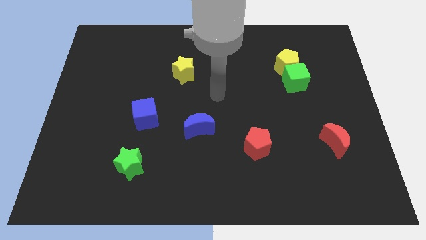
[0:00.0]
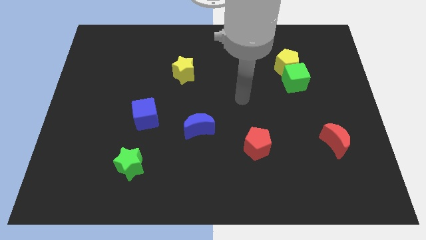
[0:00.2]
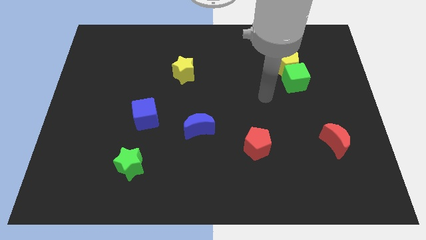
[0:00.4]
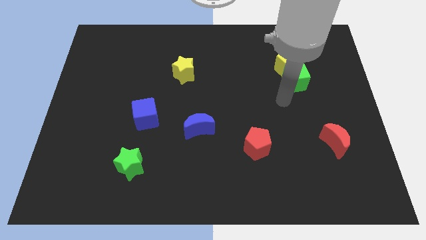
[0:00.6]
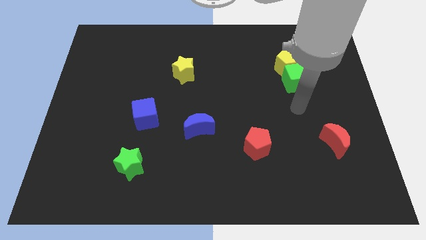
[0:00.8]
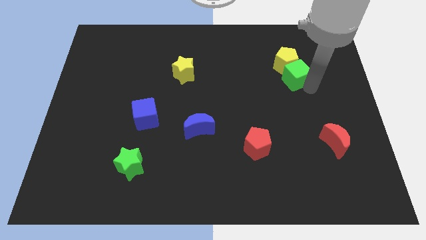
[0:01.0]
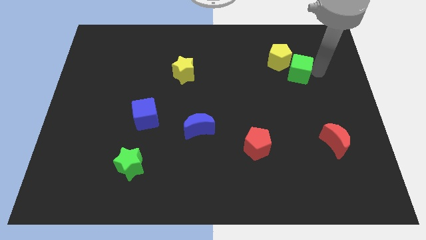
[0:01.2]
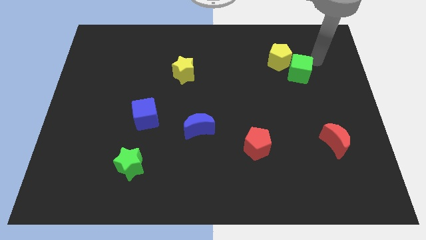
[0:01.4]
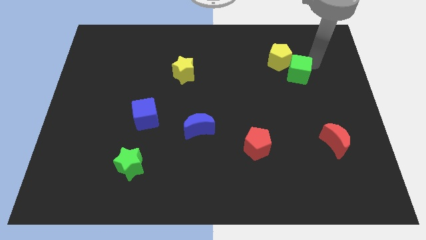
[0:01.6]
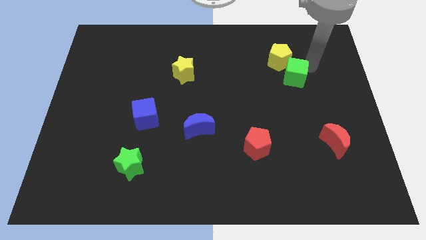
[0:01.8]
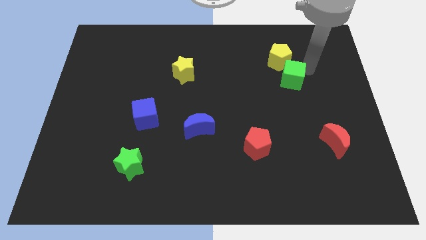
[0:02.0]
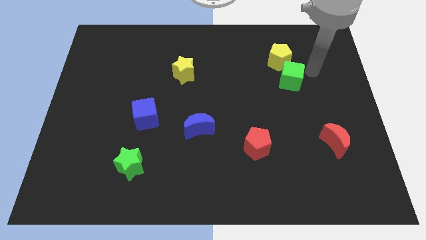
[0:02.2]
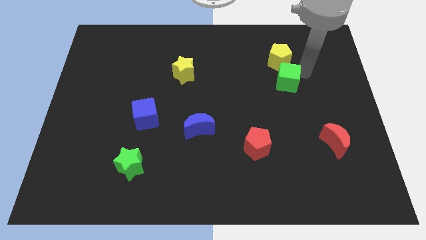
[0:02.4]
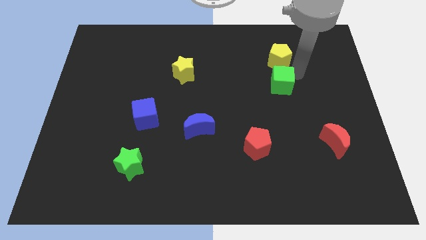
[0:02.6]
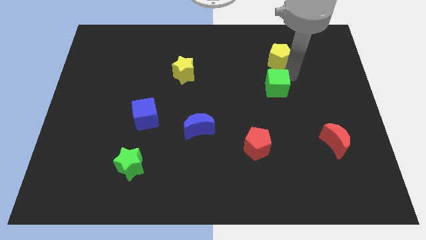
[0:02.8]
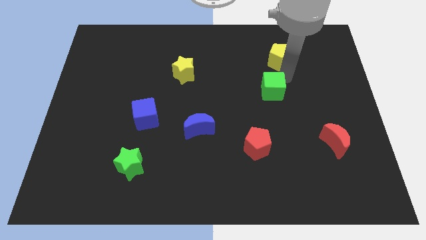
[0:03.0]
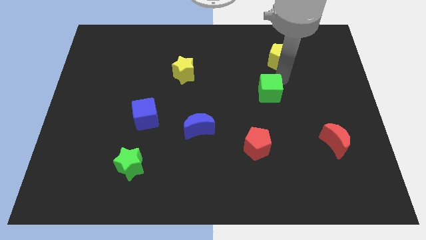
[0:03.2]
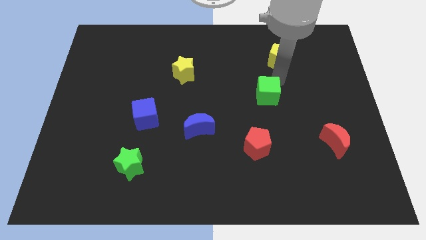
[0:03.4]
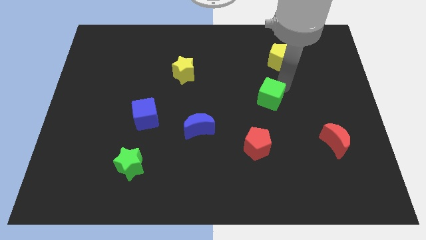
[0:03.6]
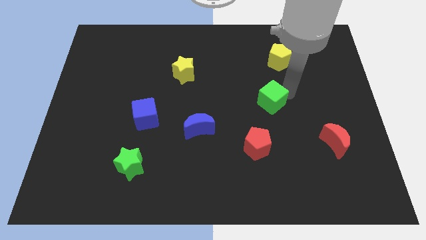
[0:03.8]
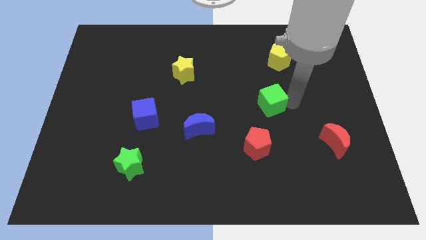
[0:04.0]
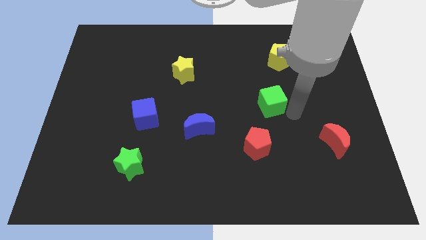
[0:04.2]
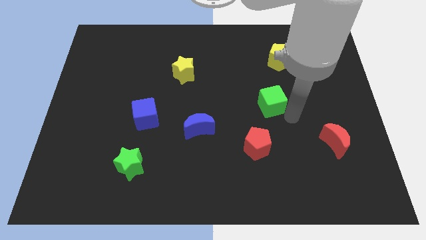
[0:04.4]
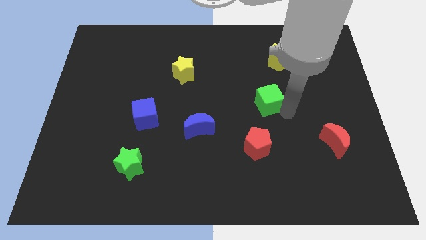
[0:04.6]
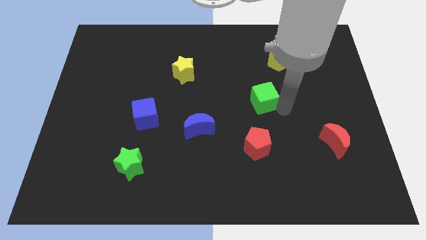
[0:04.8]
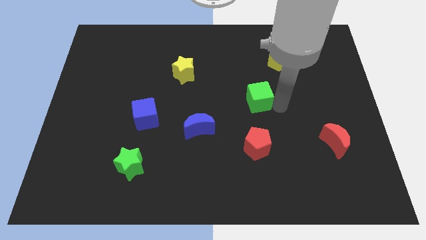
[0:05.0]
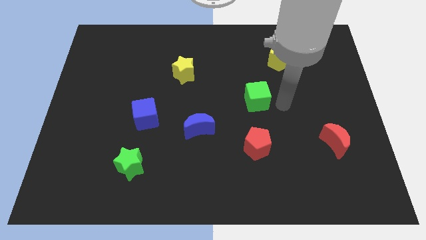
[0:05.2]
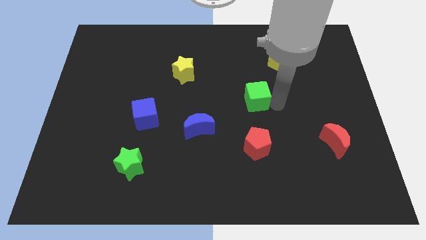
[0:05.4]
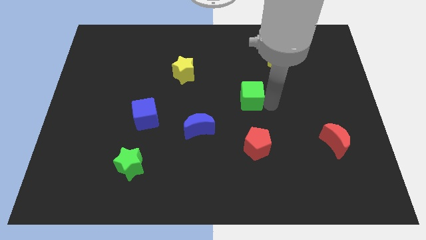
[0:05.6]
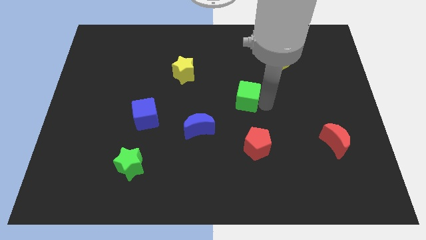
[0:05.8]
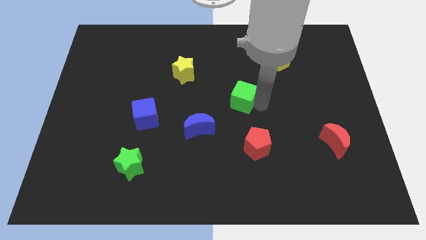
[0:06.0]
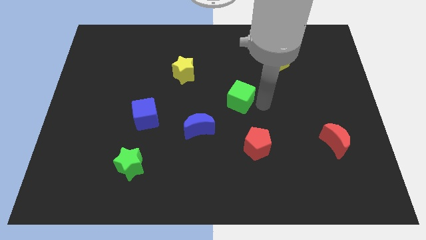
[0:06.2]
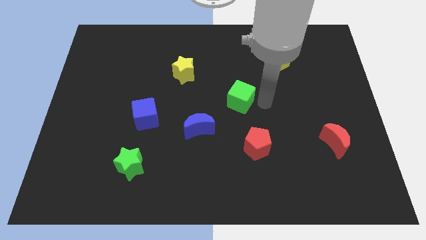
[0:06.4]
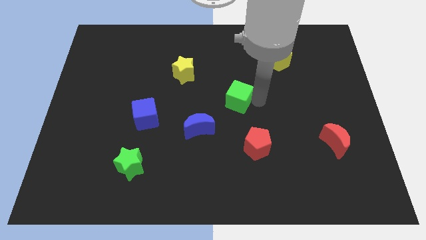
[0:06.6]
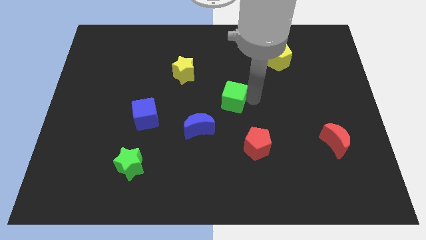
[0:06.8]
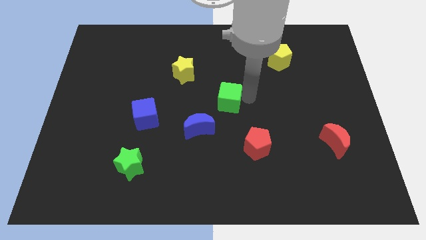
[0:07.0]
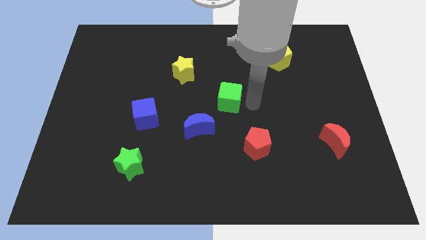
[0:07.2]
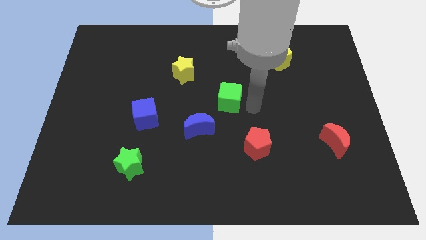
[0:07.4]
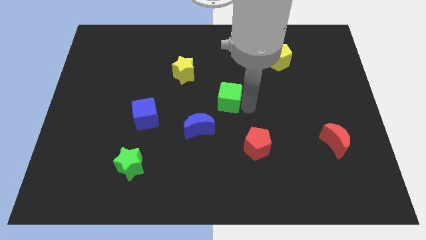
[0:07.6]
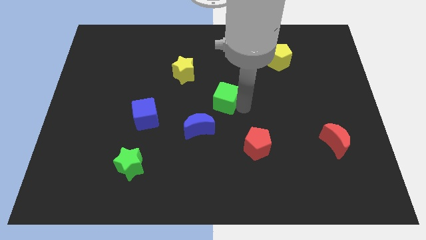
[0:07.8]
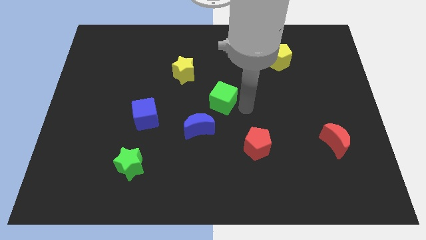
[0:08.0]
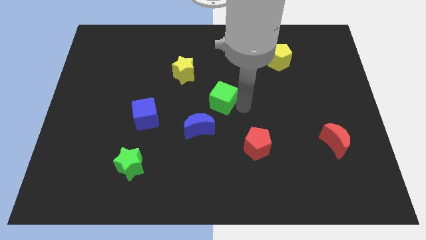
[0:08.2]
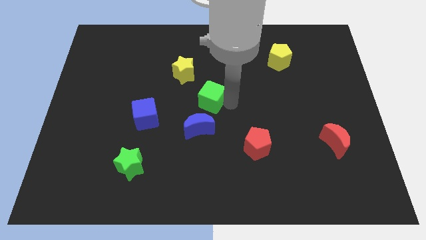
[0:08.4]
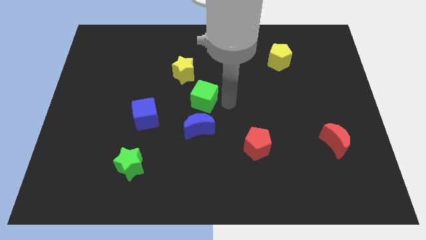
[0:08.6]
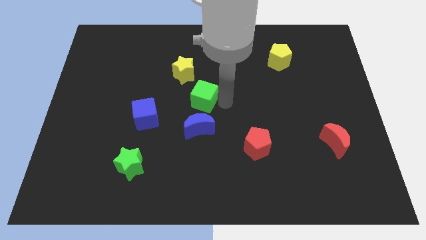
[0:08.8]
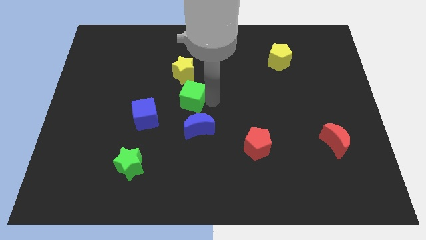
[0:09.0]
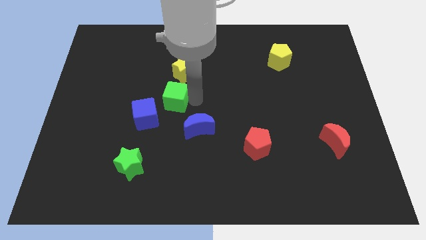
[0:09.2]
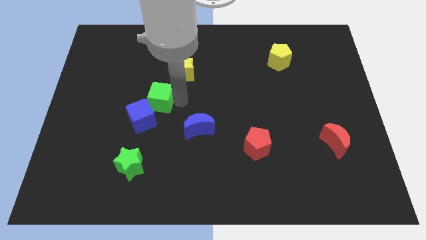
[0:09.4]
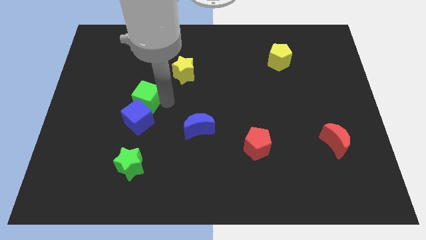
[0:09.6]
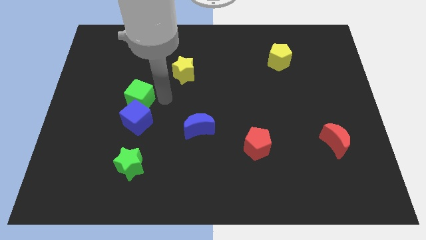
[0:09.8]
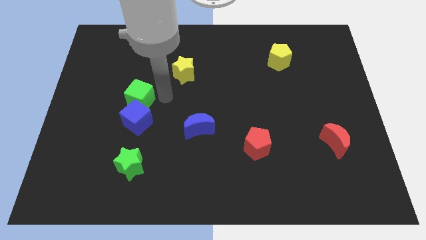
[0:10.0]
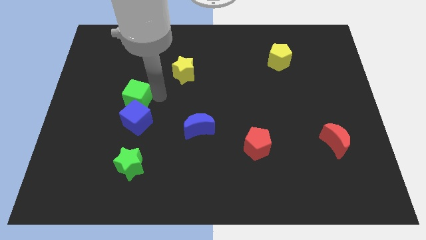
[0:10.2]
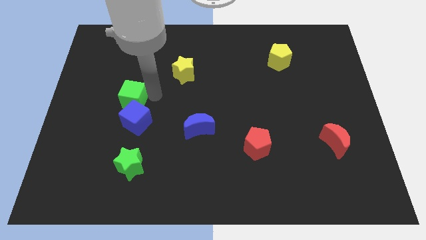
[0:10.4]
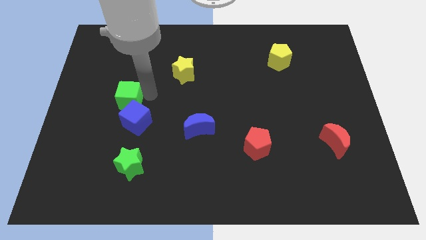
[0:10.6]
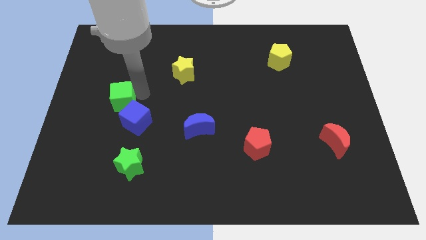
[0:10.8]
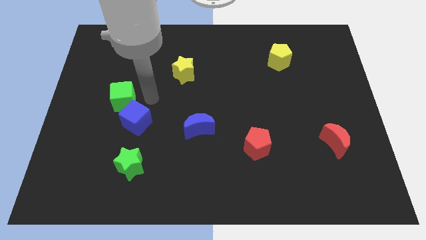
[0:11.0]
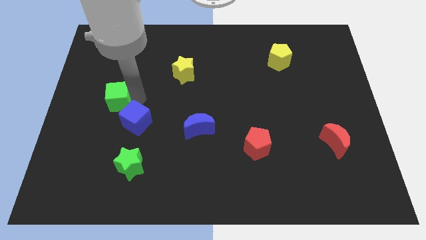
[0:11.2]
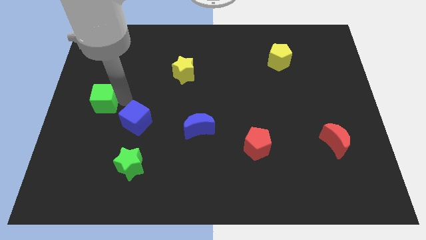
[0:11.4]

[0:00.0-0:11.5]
put the green cube to the left side of the board

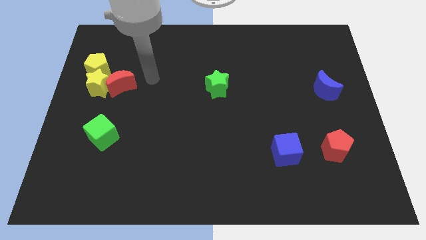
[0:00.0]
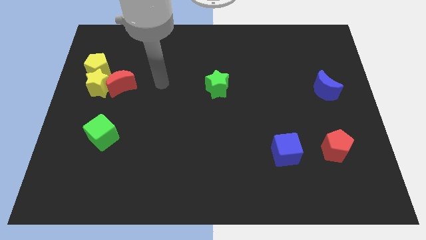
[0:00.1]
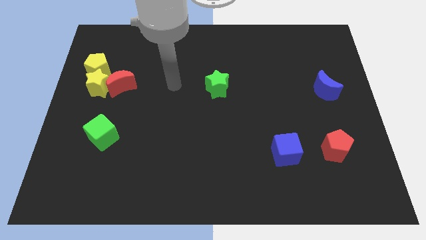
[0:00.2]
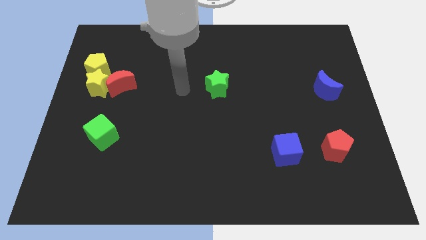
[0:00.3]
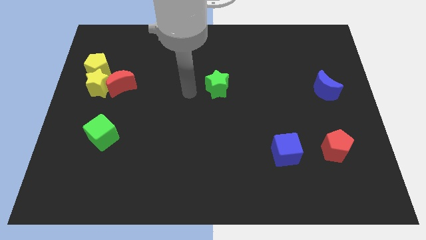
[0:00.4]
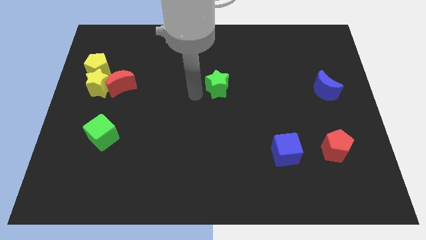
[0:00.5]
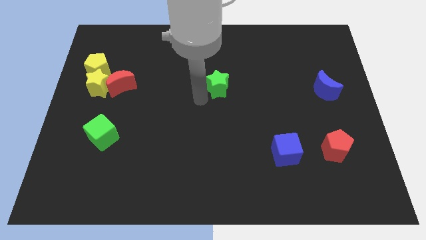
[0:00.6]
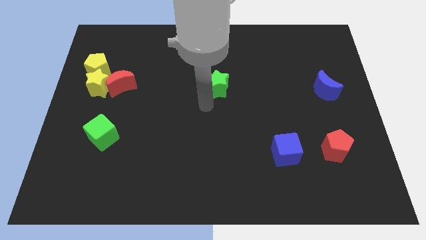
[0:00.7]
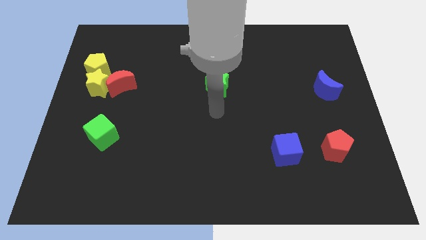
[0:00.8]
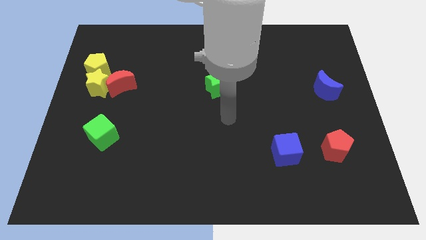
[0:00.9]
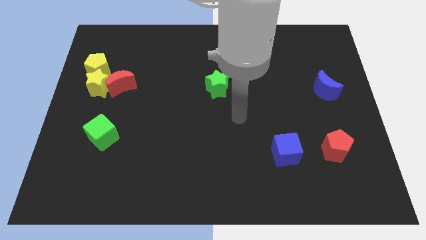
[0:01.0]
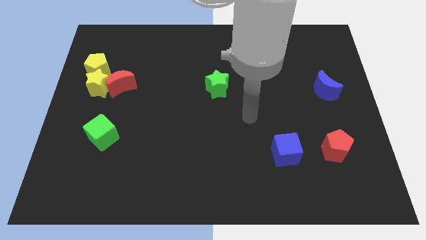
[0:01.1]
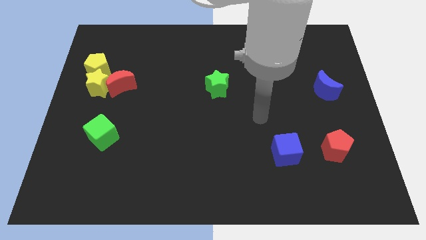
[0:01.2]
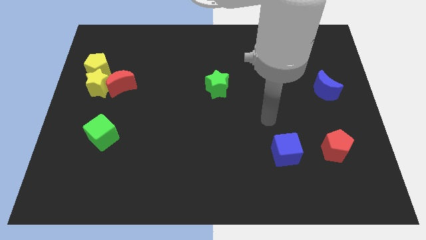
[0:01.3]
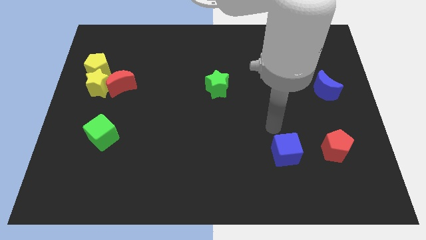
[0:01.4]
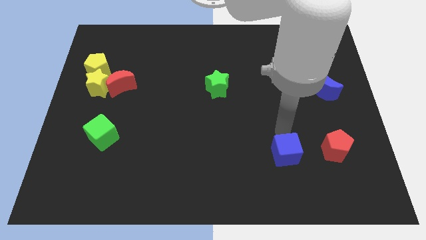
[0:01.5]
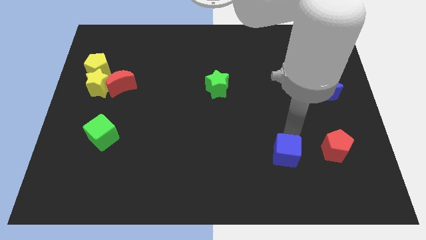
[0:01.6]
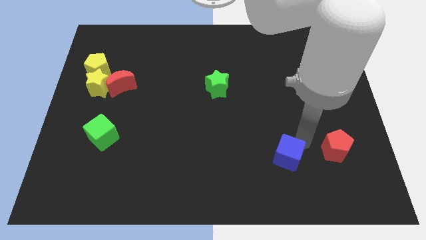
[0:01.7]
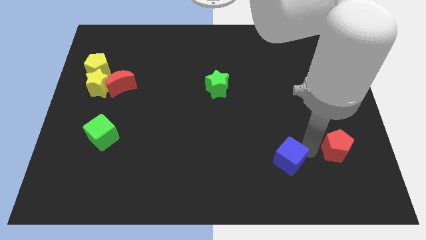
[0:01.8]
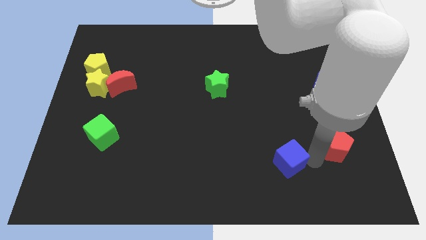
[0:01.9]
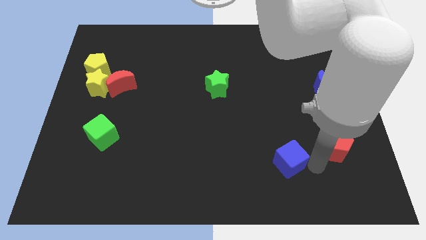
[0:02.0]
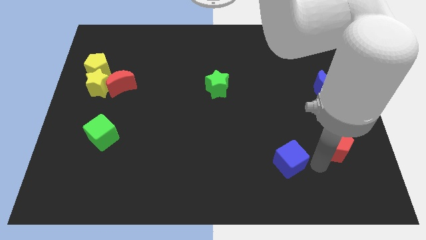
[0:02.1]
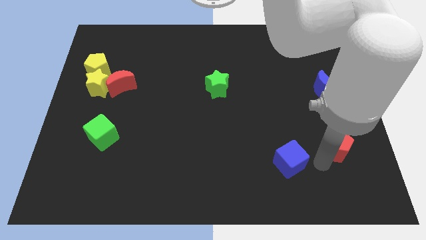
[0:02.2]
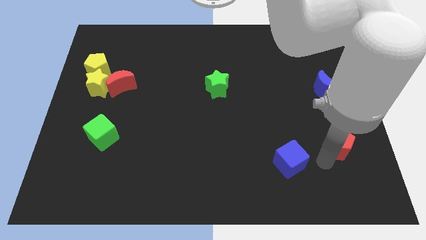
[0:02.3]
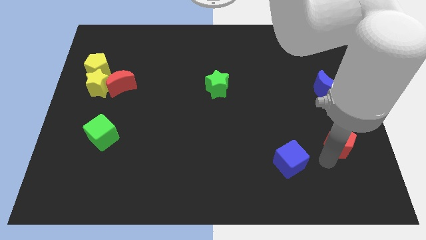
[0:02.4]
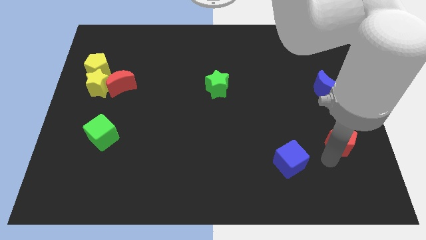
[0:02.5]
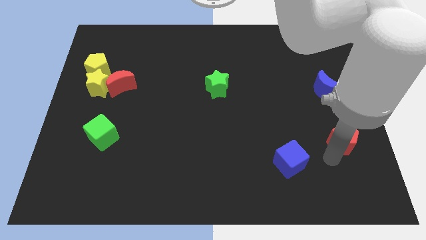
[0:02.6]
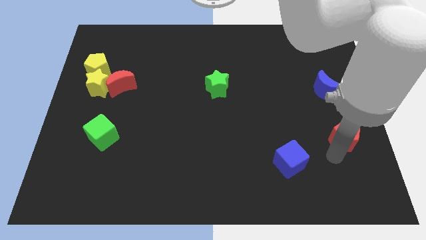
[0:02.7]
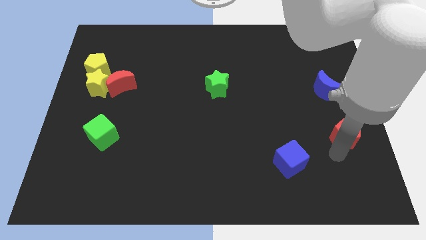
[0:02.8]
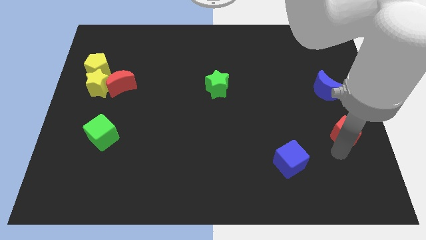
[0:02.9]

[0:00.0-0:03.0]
move the red pentagon to the center right
